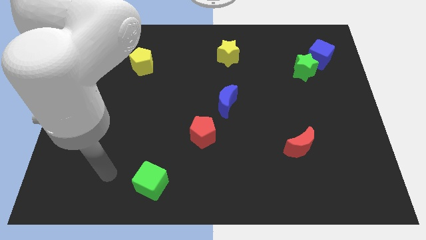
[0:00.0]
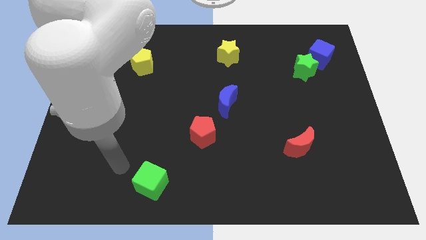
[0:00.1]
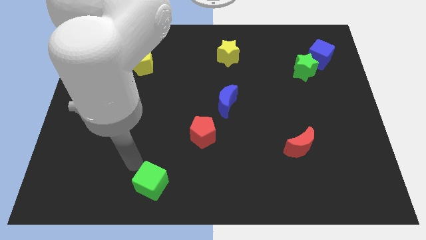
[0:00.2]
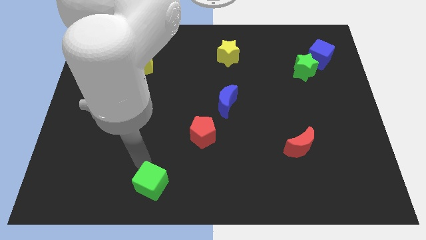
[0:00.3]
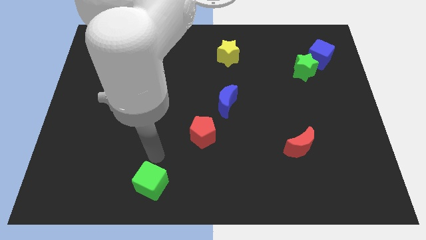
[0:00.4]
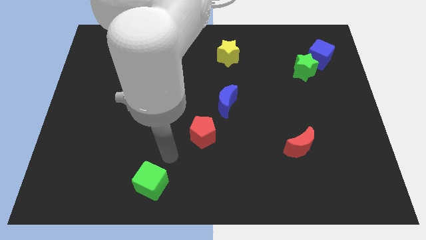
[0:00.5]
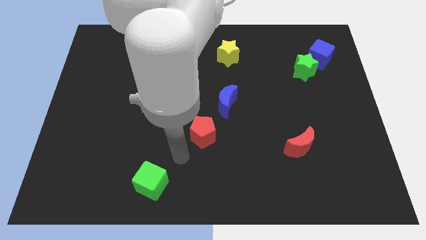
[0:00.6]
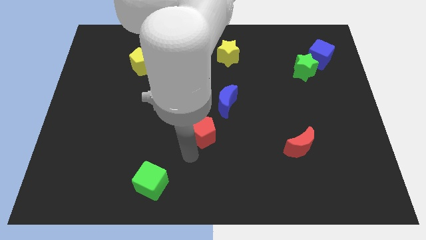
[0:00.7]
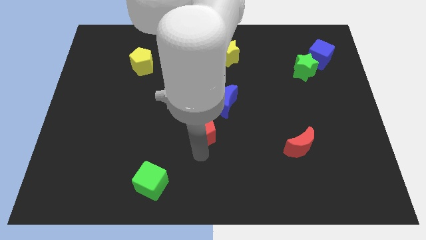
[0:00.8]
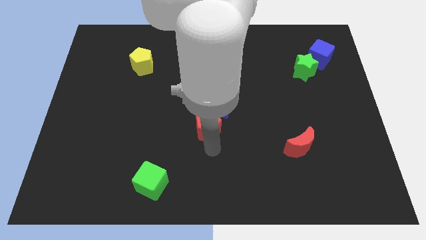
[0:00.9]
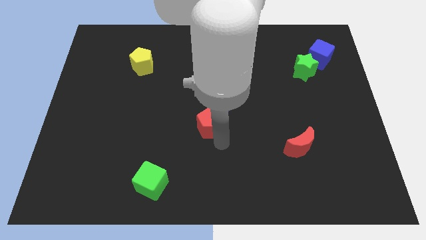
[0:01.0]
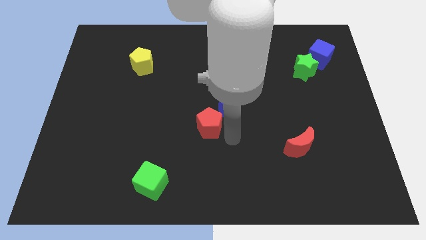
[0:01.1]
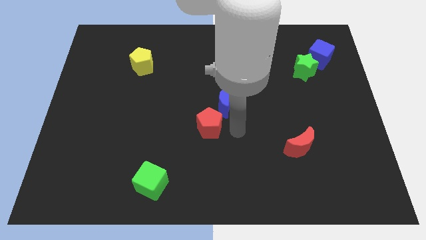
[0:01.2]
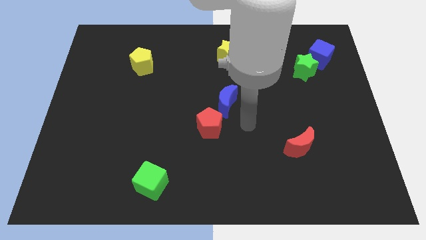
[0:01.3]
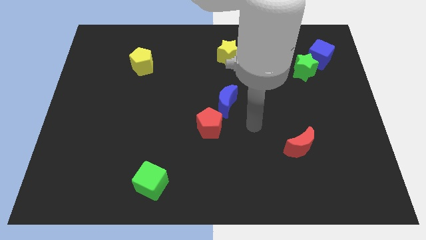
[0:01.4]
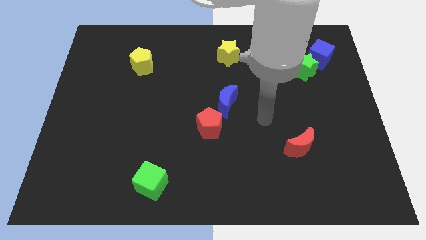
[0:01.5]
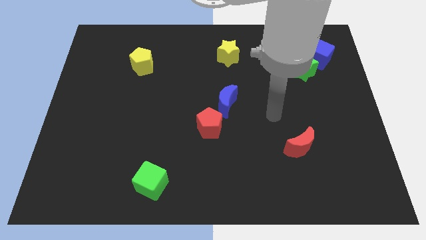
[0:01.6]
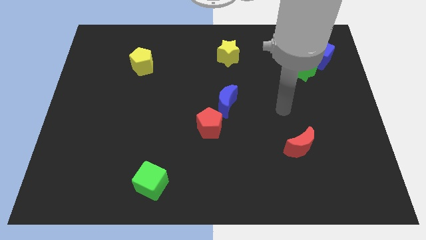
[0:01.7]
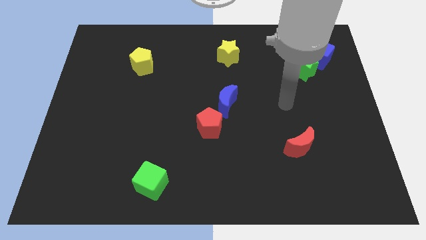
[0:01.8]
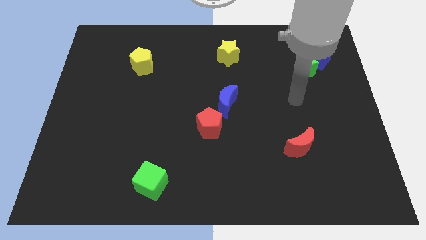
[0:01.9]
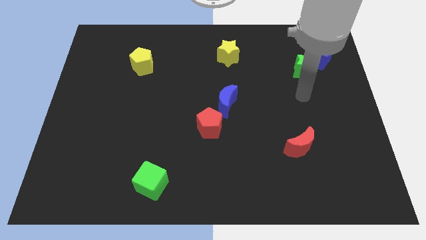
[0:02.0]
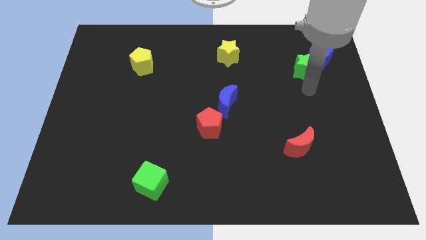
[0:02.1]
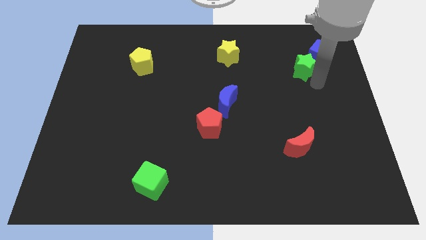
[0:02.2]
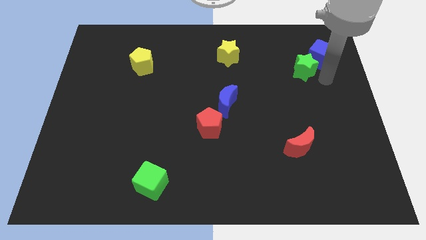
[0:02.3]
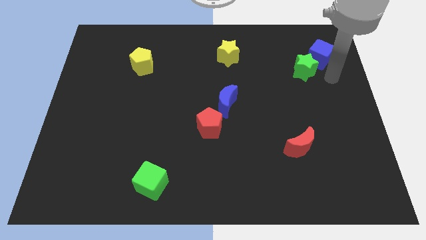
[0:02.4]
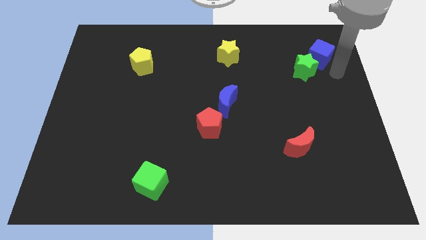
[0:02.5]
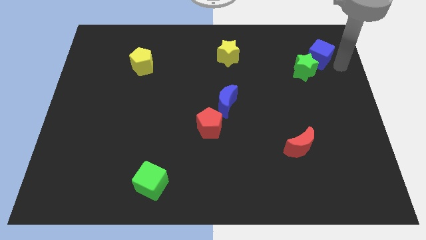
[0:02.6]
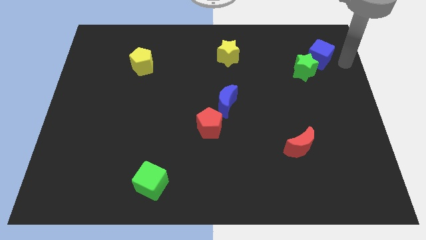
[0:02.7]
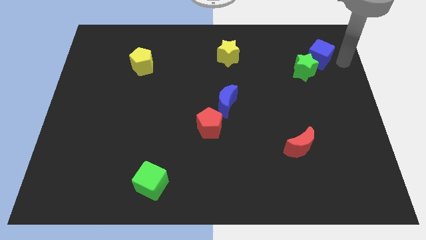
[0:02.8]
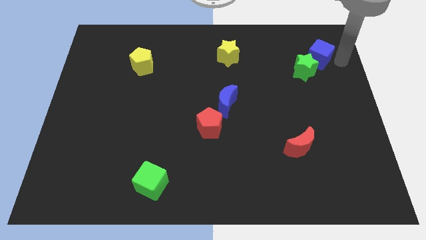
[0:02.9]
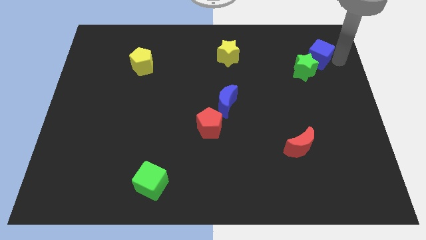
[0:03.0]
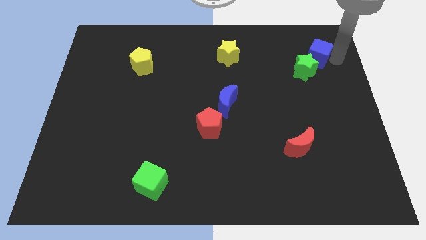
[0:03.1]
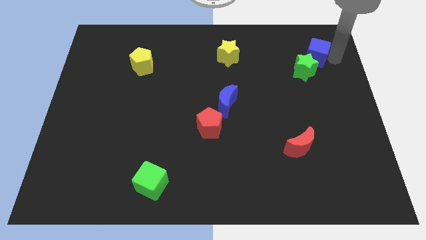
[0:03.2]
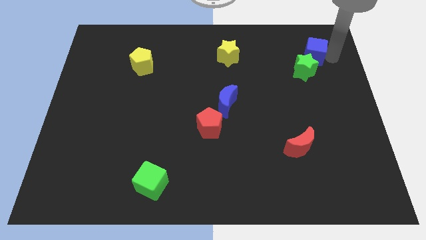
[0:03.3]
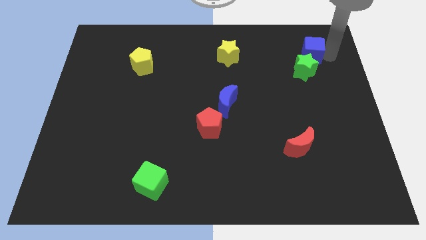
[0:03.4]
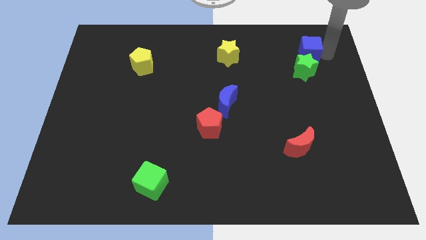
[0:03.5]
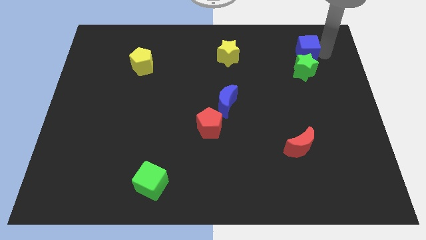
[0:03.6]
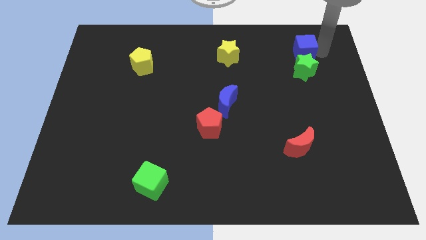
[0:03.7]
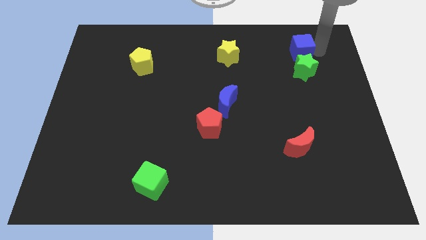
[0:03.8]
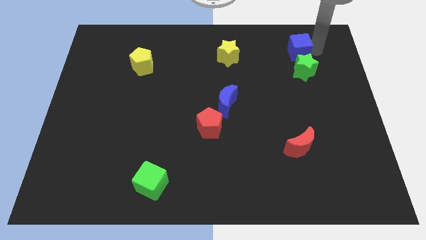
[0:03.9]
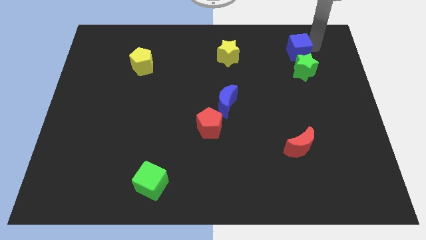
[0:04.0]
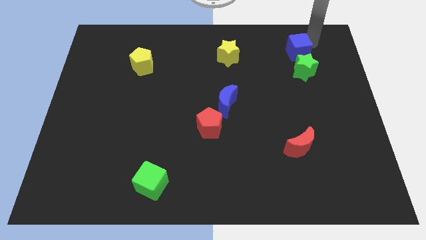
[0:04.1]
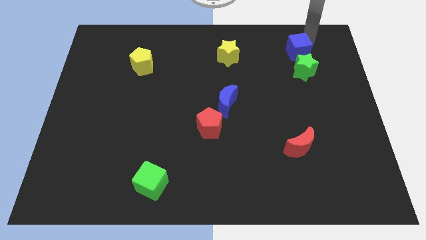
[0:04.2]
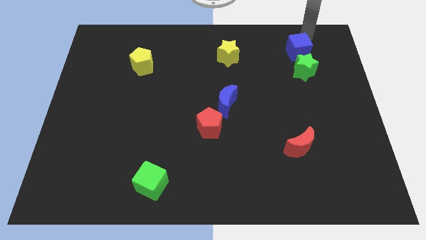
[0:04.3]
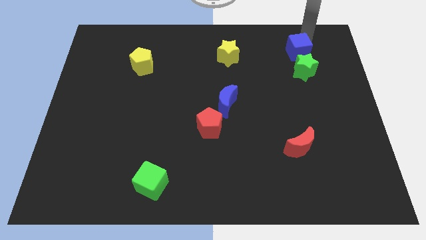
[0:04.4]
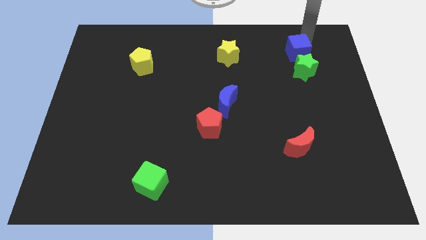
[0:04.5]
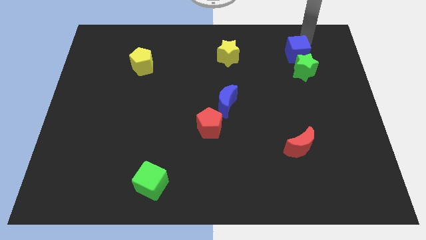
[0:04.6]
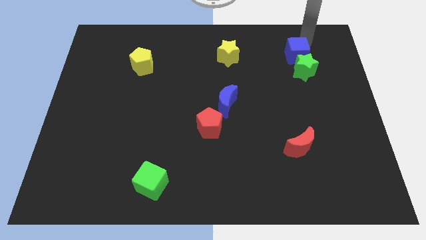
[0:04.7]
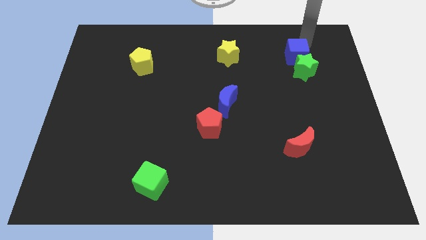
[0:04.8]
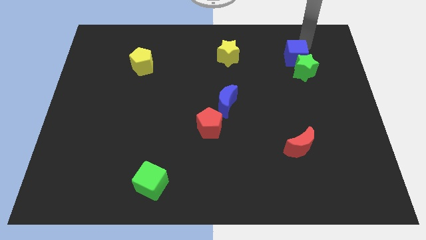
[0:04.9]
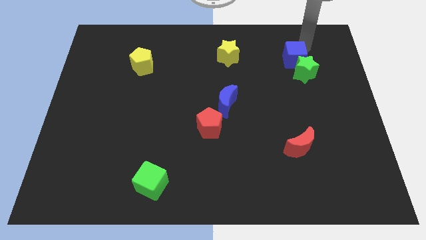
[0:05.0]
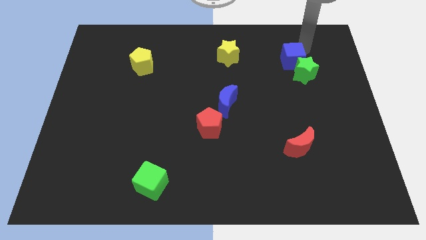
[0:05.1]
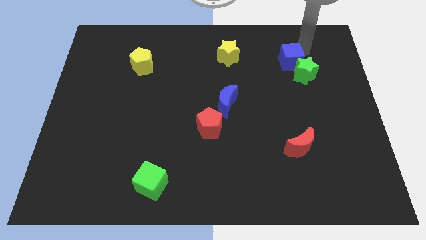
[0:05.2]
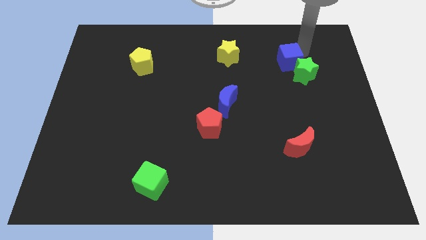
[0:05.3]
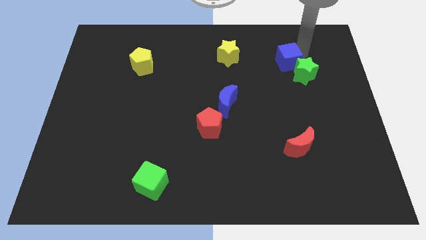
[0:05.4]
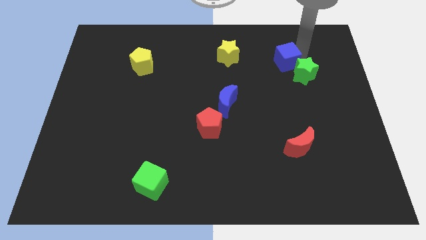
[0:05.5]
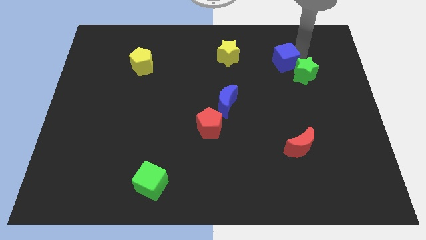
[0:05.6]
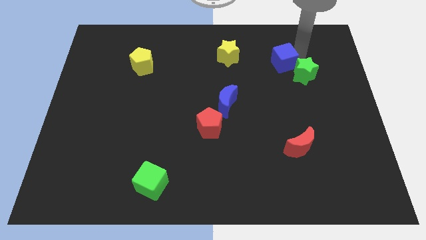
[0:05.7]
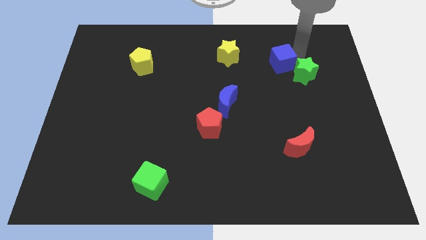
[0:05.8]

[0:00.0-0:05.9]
move the blue cube down and left slightly

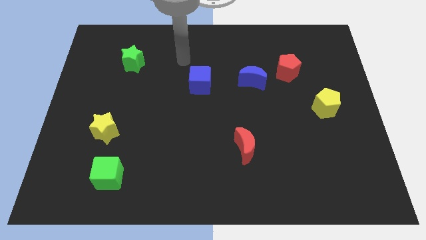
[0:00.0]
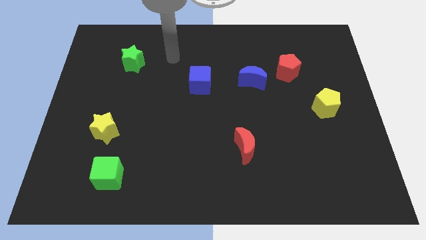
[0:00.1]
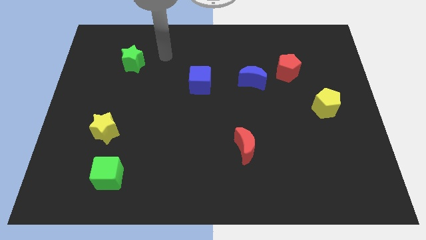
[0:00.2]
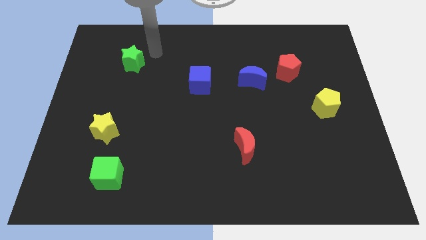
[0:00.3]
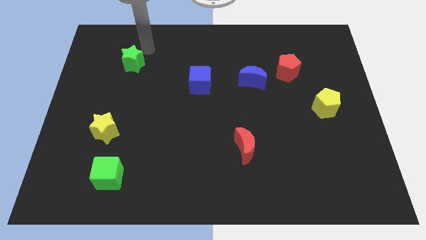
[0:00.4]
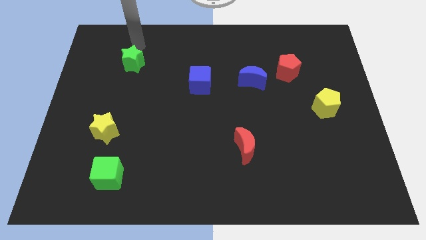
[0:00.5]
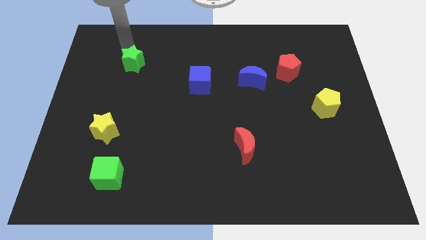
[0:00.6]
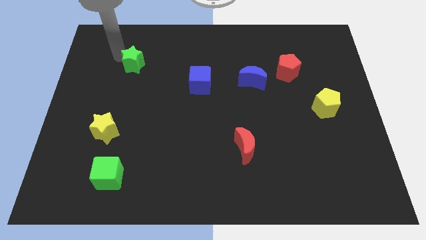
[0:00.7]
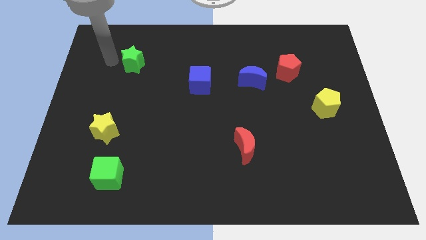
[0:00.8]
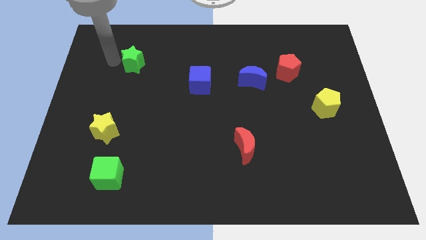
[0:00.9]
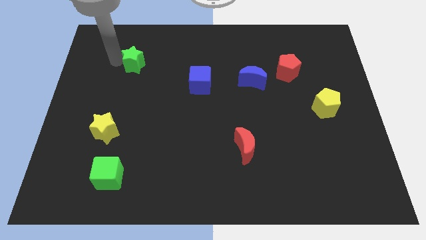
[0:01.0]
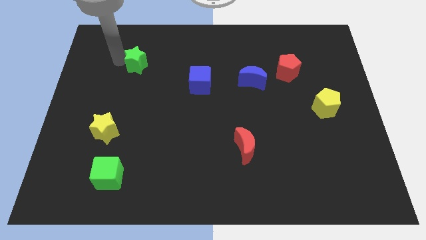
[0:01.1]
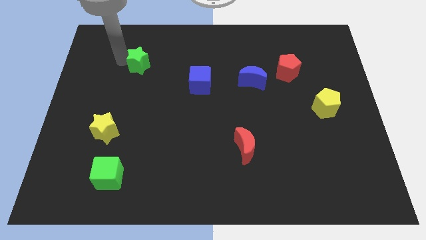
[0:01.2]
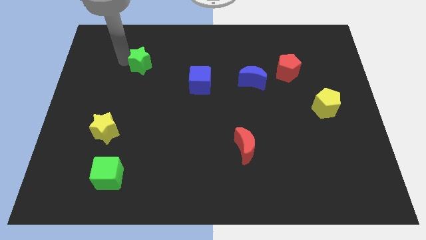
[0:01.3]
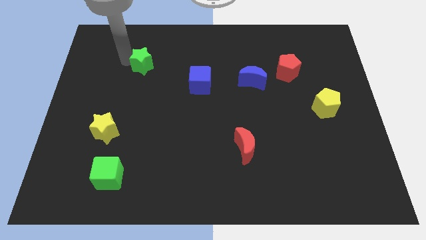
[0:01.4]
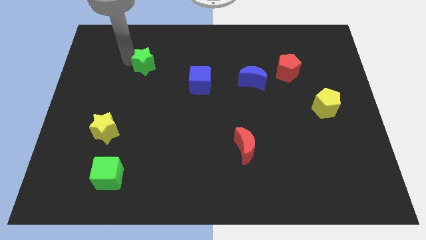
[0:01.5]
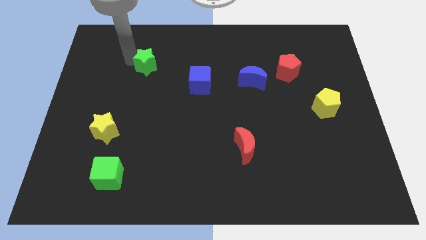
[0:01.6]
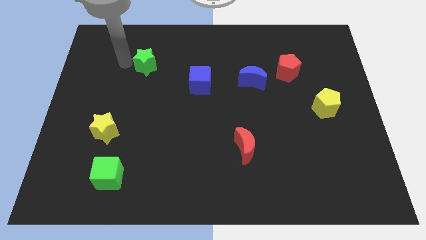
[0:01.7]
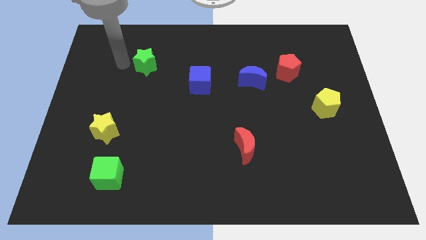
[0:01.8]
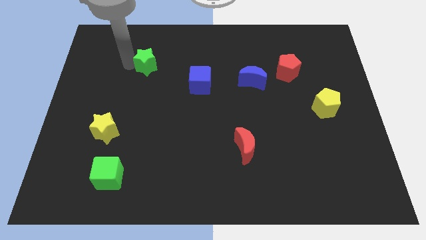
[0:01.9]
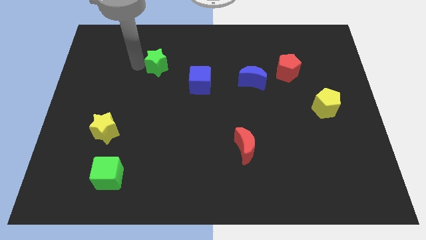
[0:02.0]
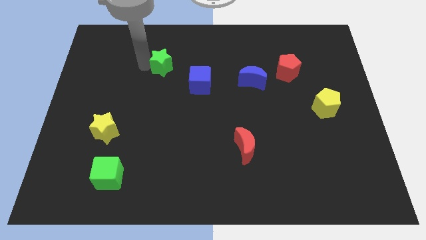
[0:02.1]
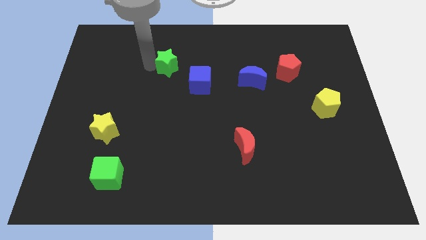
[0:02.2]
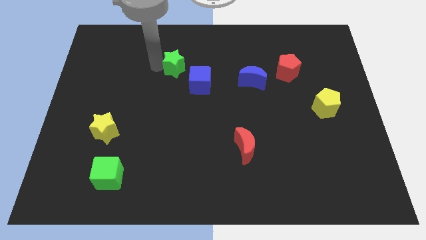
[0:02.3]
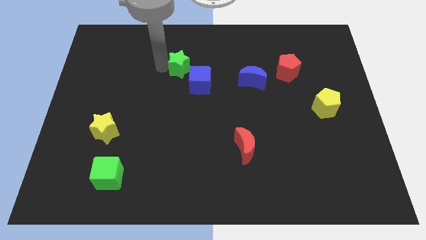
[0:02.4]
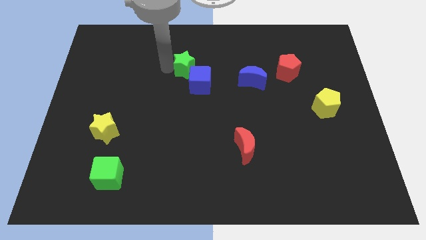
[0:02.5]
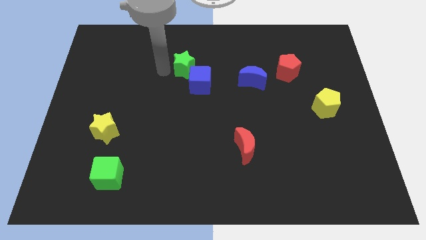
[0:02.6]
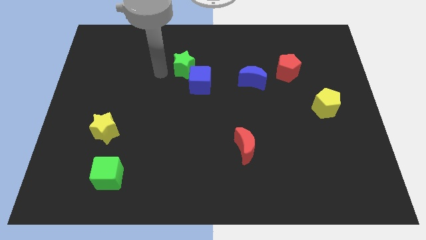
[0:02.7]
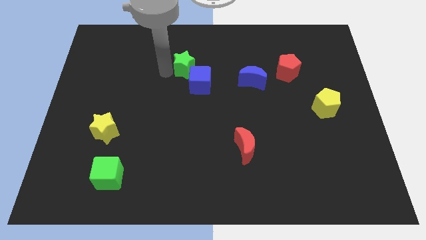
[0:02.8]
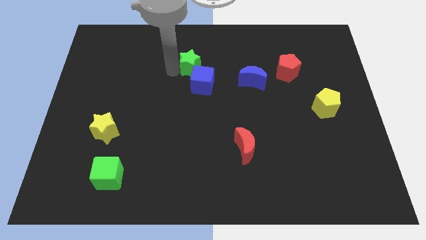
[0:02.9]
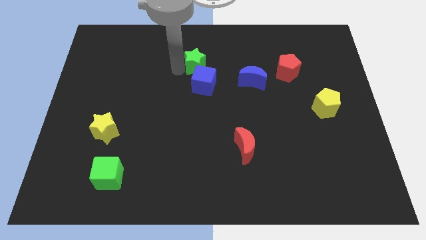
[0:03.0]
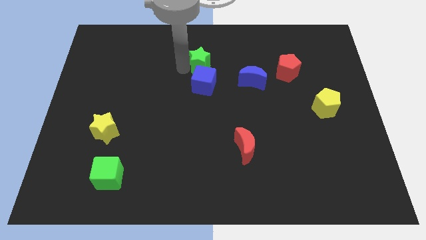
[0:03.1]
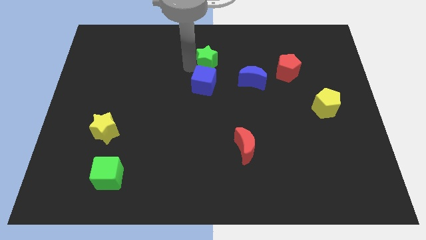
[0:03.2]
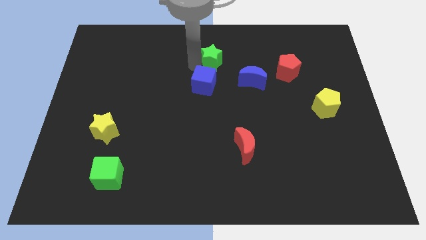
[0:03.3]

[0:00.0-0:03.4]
slide the green star to the right
